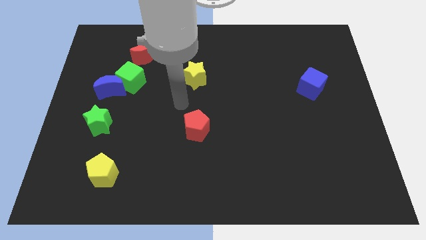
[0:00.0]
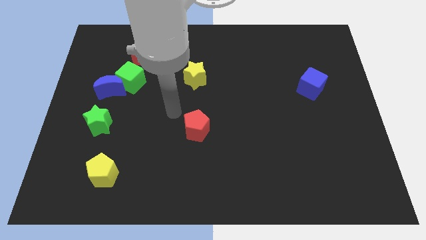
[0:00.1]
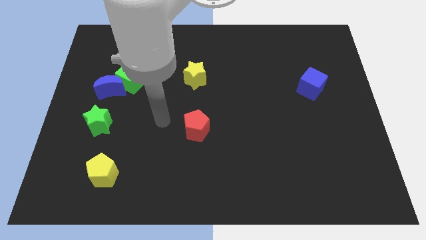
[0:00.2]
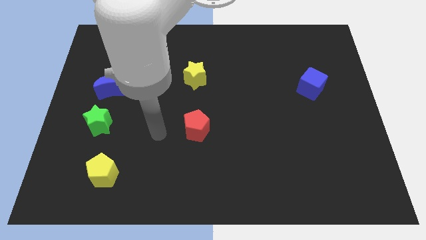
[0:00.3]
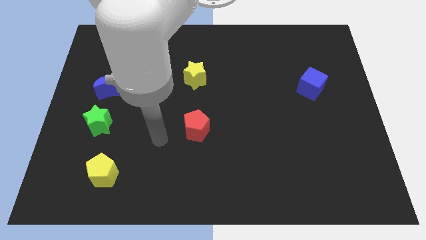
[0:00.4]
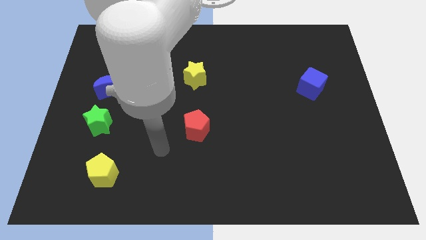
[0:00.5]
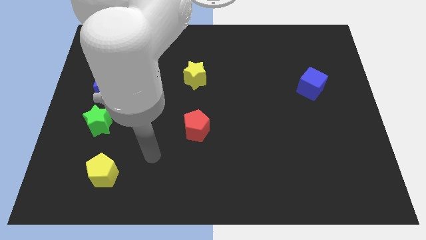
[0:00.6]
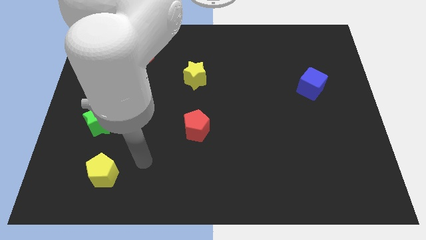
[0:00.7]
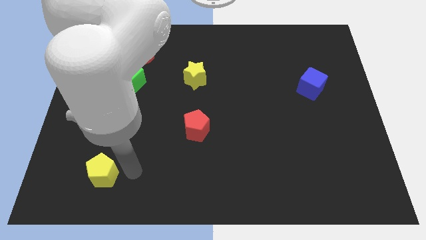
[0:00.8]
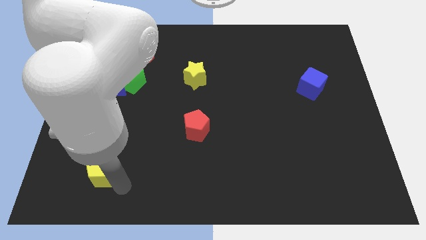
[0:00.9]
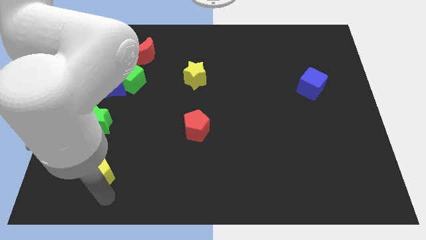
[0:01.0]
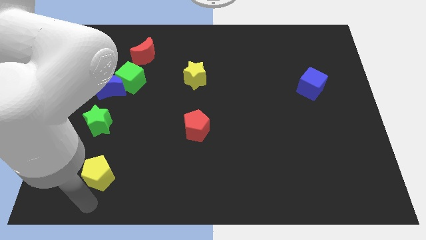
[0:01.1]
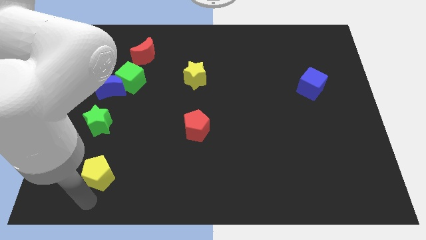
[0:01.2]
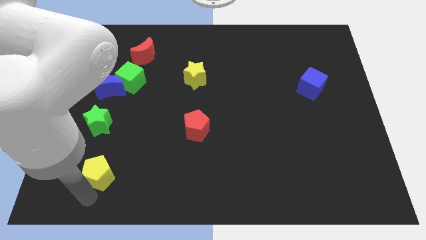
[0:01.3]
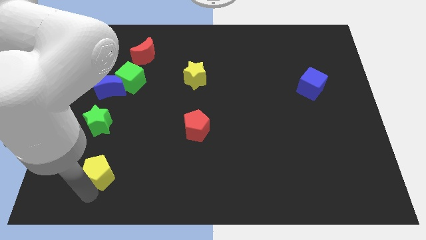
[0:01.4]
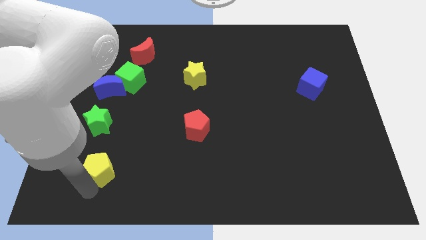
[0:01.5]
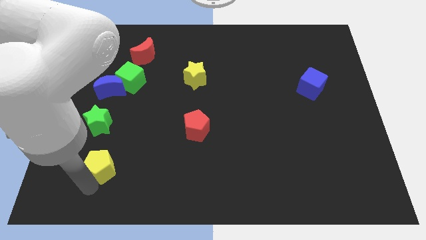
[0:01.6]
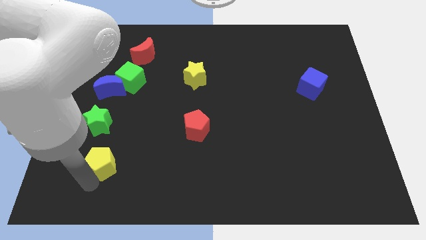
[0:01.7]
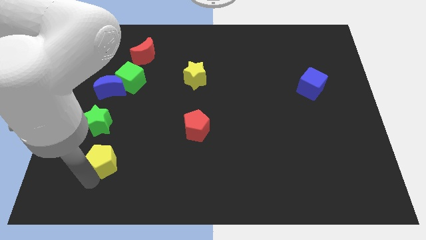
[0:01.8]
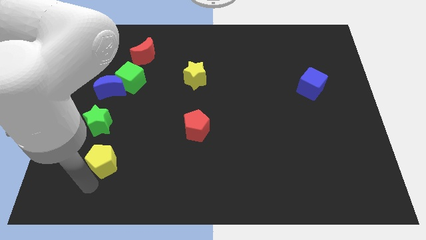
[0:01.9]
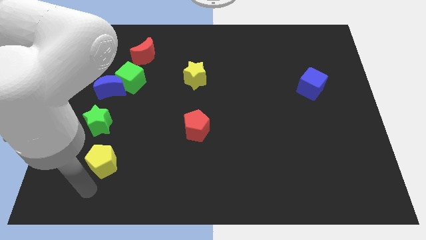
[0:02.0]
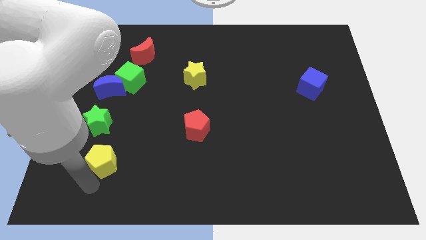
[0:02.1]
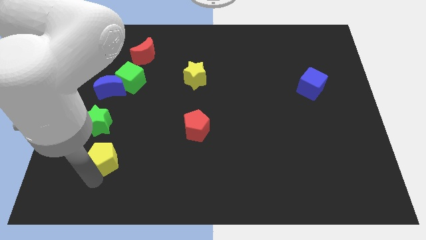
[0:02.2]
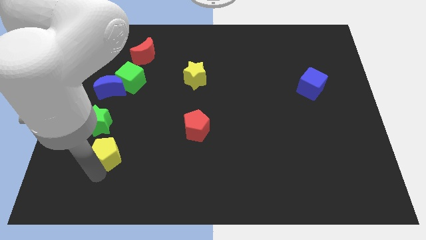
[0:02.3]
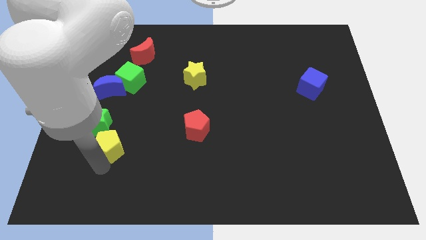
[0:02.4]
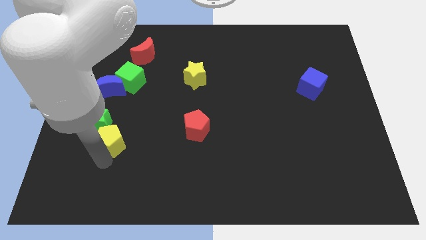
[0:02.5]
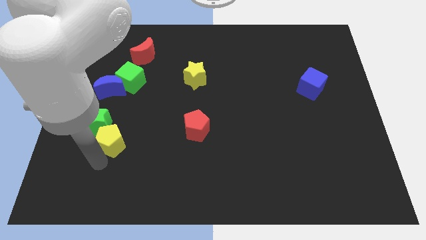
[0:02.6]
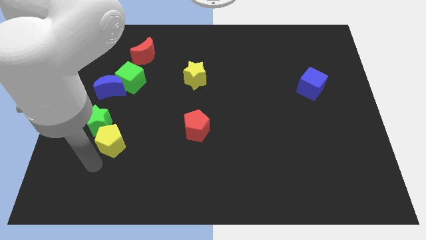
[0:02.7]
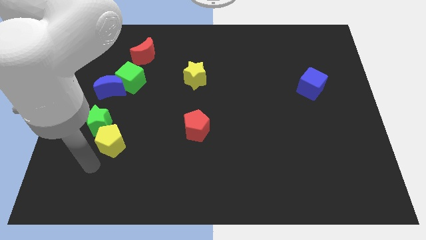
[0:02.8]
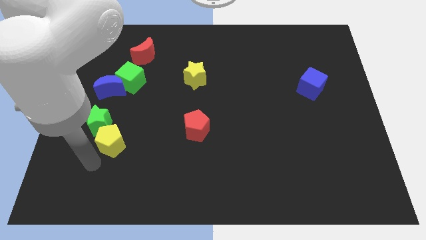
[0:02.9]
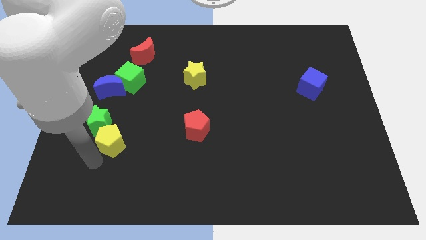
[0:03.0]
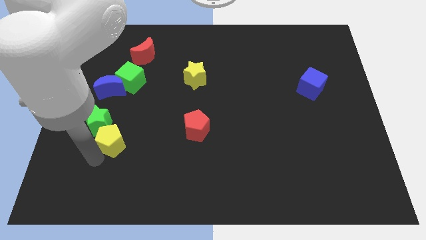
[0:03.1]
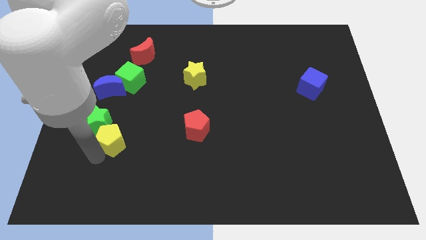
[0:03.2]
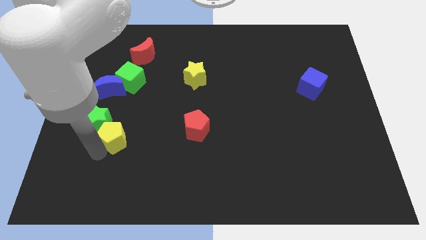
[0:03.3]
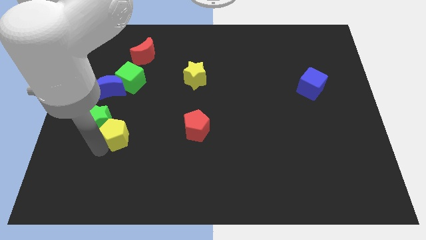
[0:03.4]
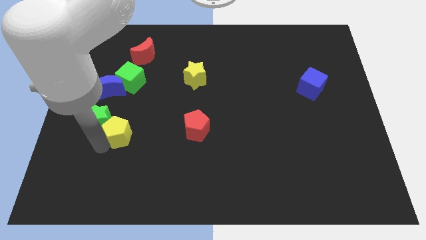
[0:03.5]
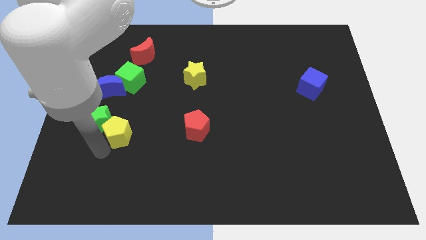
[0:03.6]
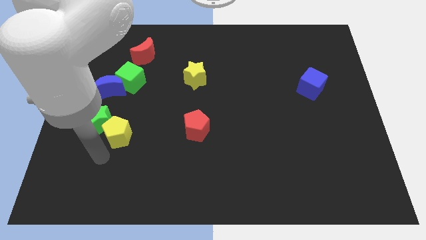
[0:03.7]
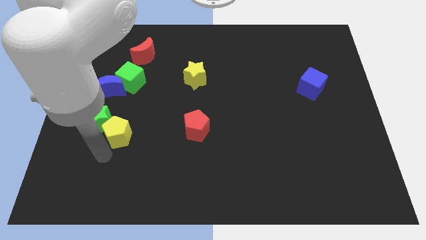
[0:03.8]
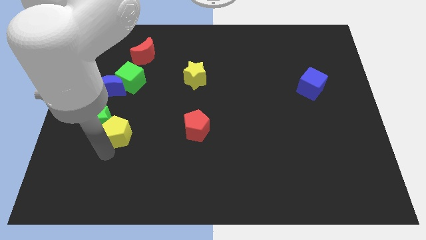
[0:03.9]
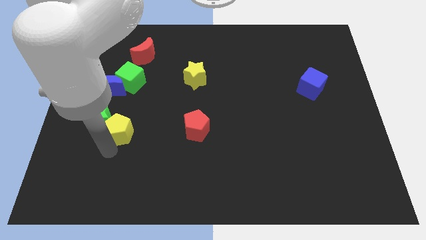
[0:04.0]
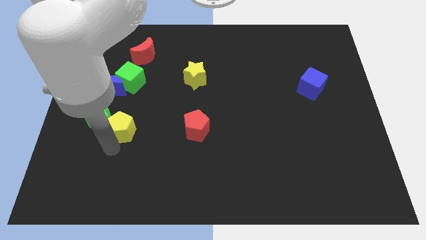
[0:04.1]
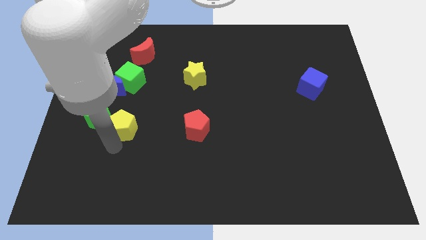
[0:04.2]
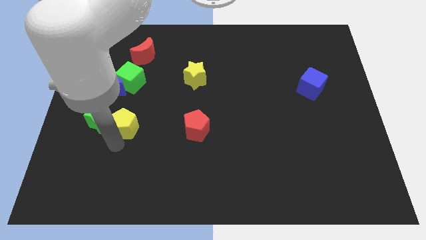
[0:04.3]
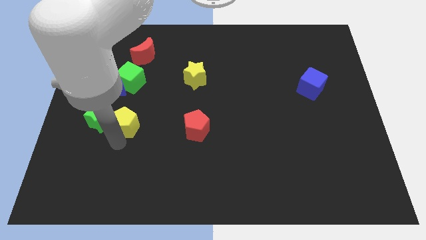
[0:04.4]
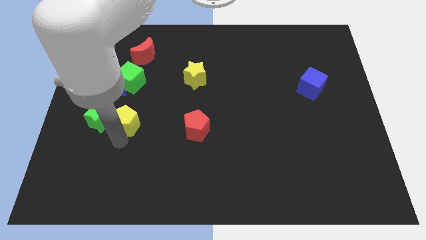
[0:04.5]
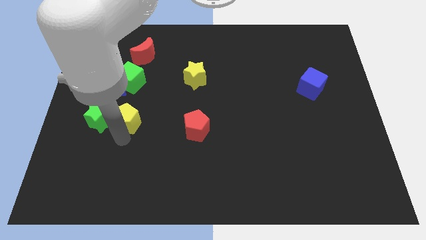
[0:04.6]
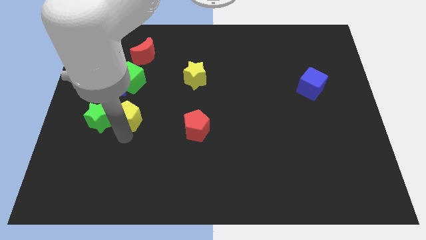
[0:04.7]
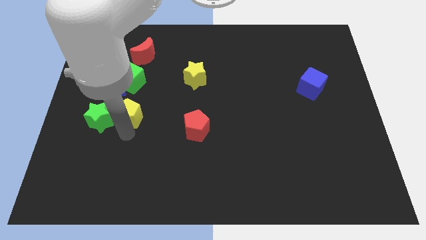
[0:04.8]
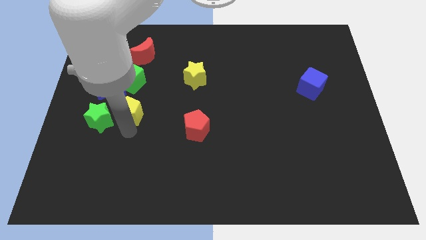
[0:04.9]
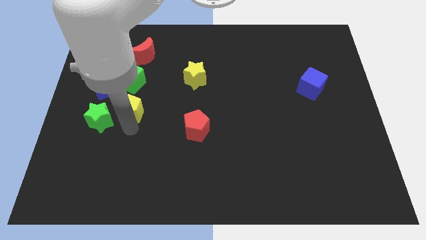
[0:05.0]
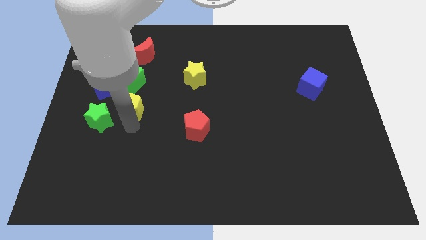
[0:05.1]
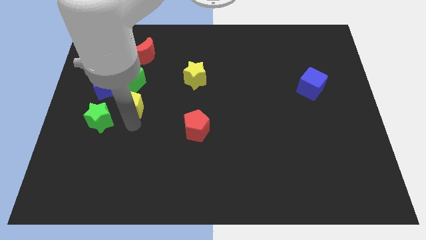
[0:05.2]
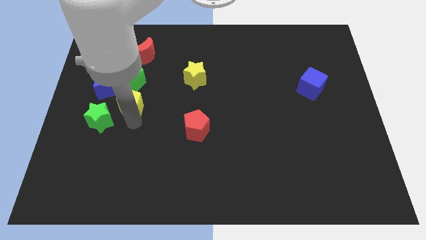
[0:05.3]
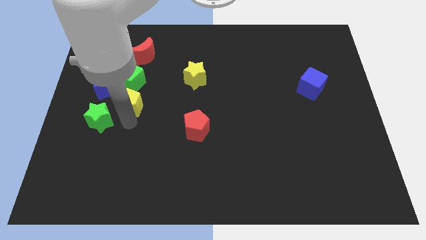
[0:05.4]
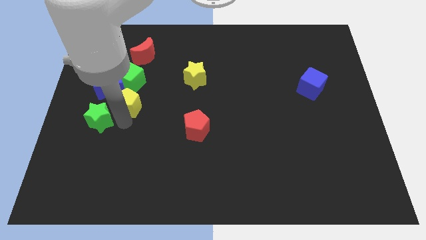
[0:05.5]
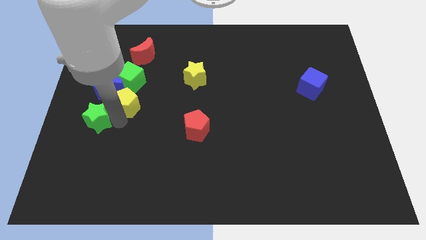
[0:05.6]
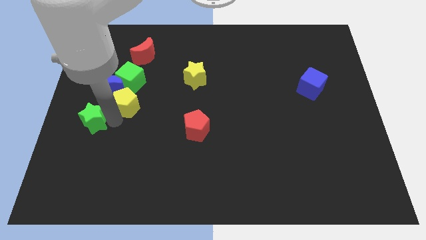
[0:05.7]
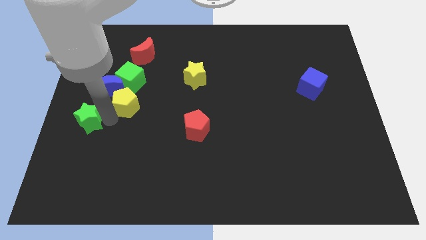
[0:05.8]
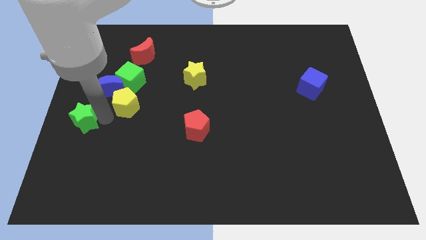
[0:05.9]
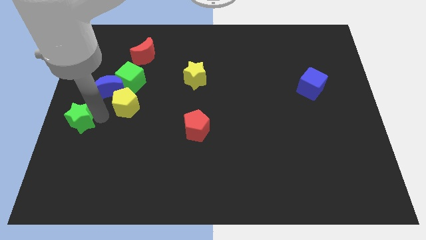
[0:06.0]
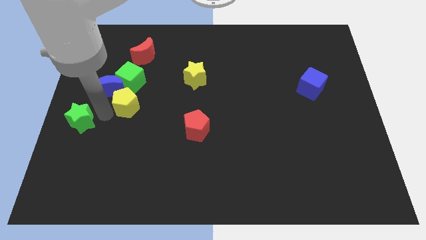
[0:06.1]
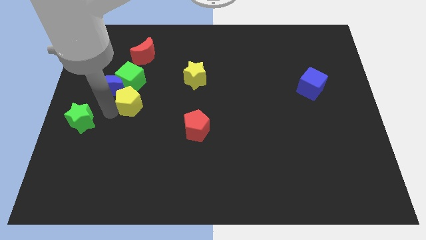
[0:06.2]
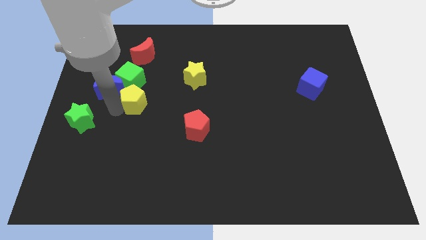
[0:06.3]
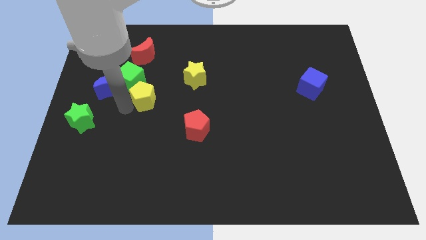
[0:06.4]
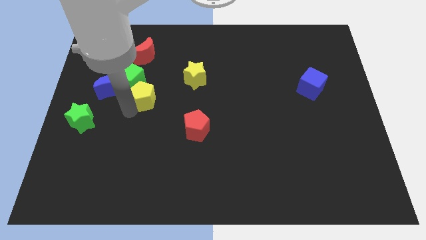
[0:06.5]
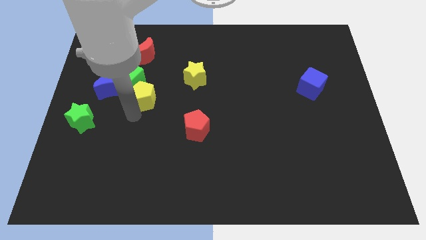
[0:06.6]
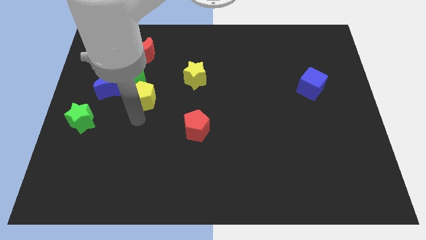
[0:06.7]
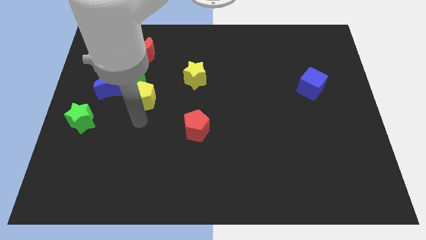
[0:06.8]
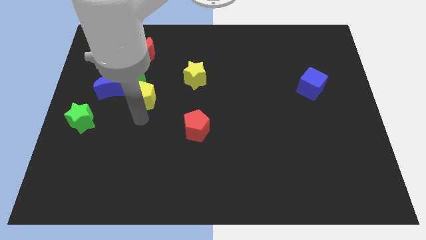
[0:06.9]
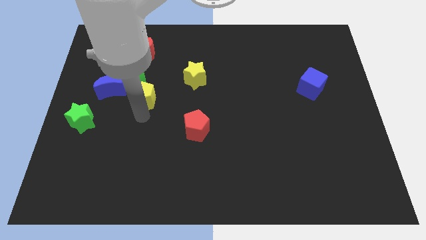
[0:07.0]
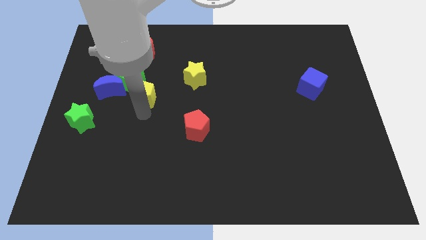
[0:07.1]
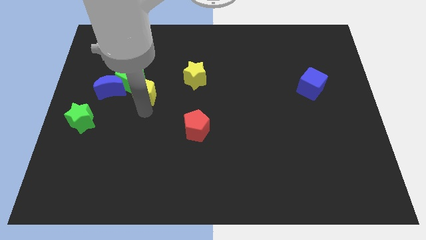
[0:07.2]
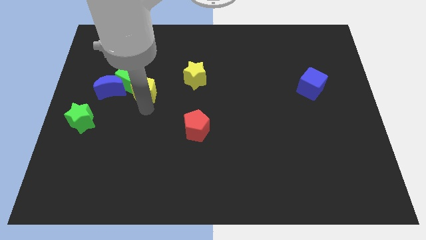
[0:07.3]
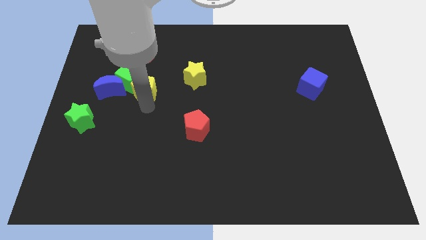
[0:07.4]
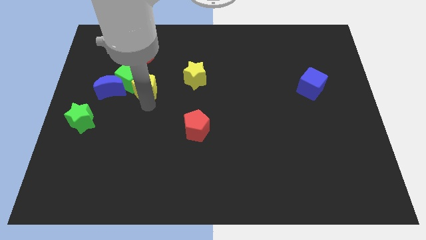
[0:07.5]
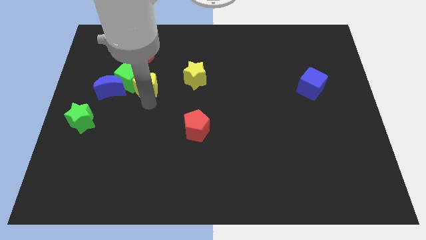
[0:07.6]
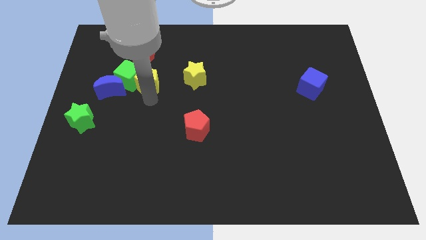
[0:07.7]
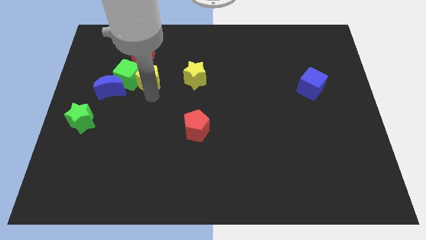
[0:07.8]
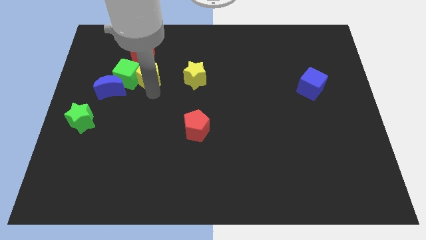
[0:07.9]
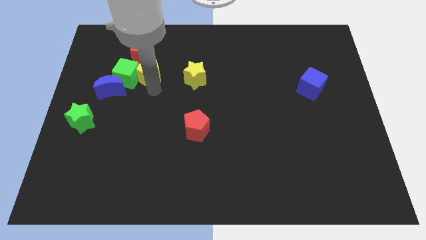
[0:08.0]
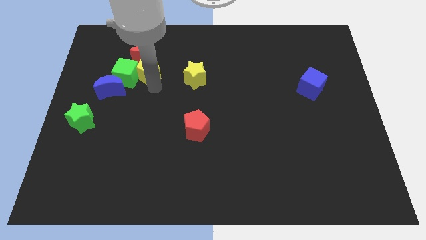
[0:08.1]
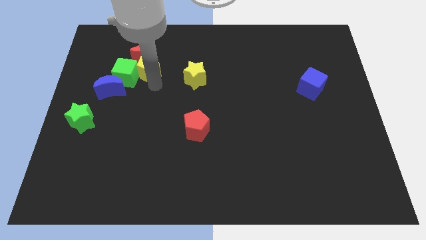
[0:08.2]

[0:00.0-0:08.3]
slide the yellow pentagon next to the red moon
